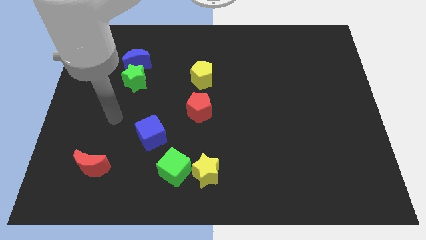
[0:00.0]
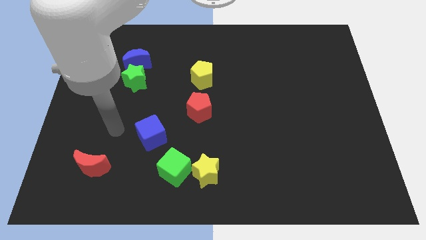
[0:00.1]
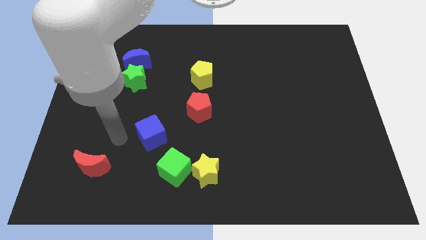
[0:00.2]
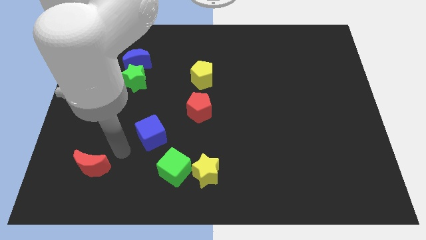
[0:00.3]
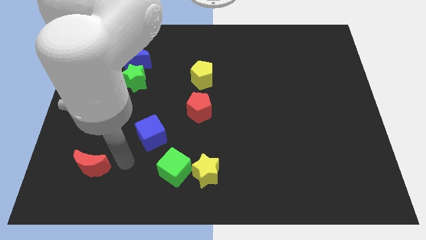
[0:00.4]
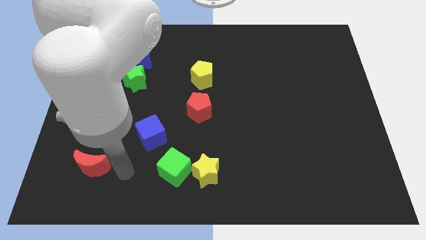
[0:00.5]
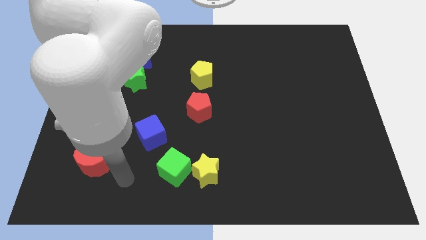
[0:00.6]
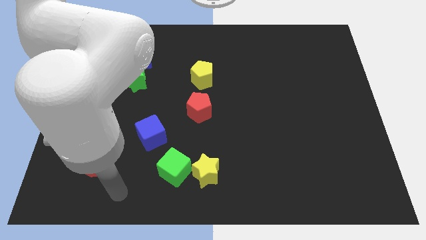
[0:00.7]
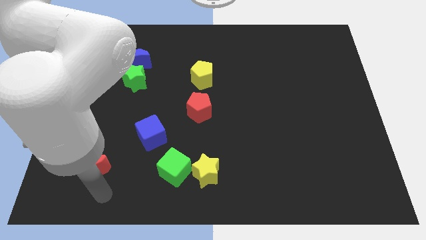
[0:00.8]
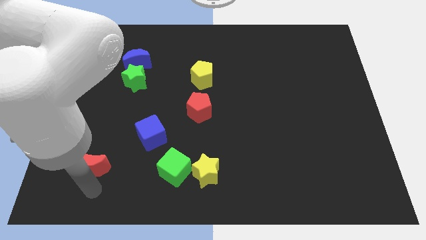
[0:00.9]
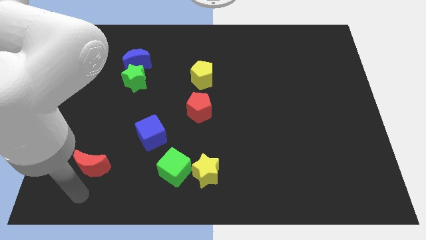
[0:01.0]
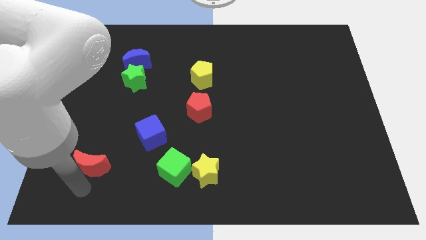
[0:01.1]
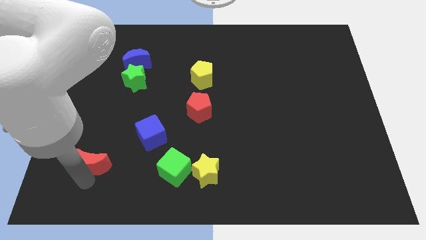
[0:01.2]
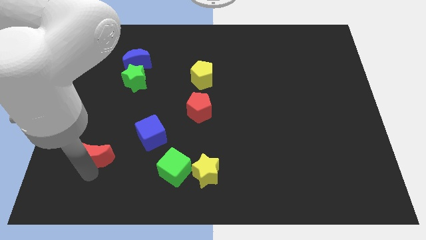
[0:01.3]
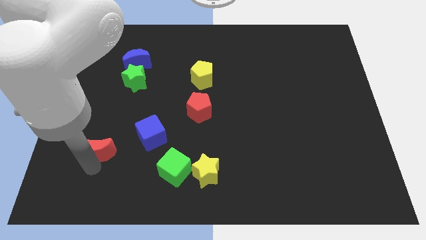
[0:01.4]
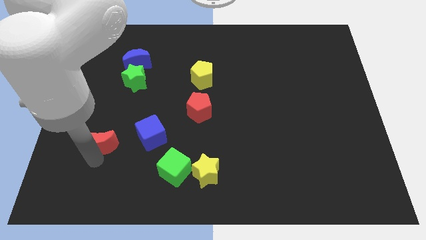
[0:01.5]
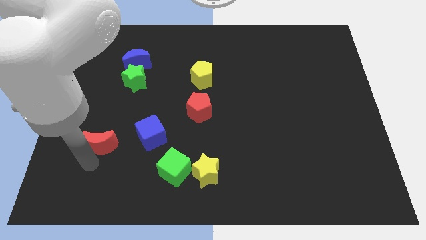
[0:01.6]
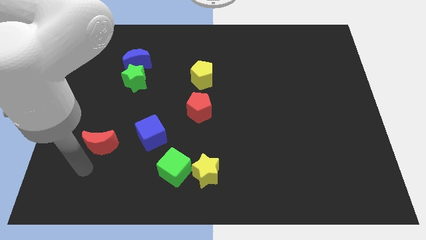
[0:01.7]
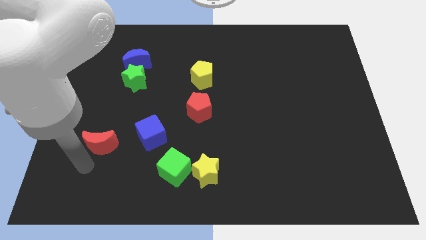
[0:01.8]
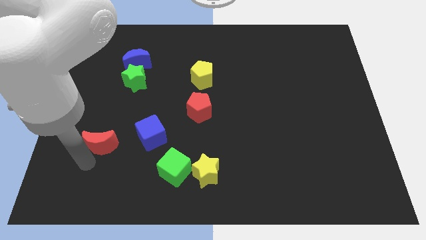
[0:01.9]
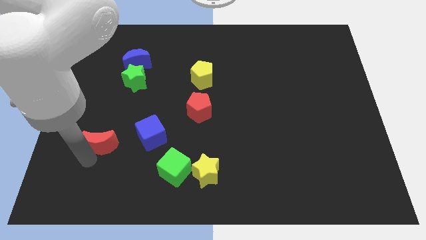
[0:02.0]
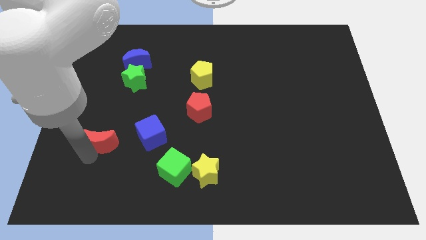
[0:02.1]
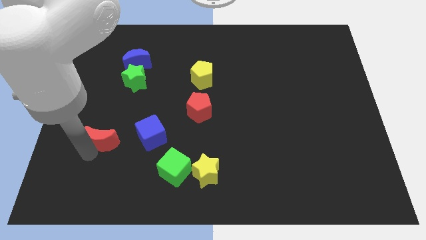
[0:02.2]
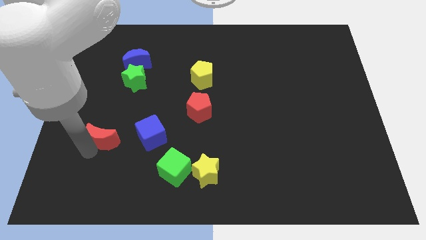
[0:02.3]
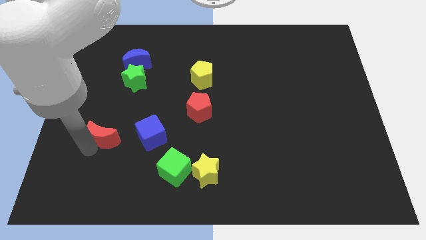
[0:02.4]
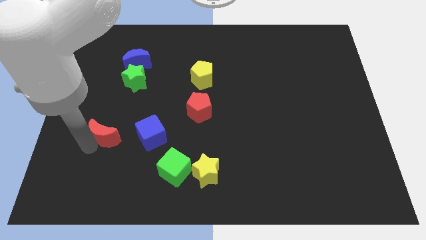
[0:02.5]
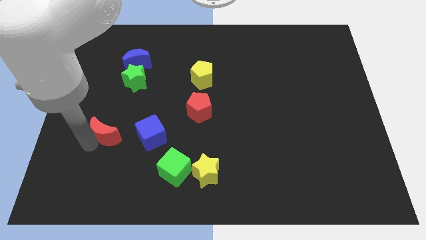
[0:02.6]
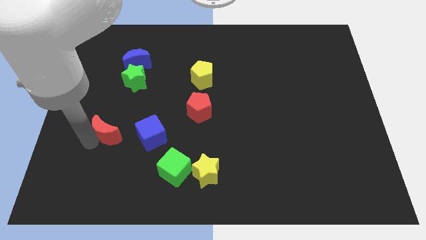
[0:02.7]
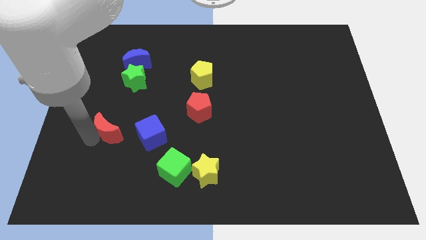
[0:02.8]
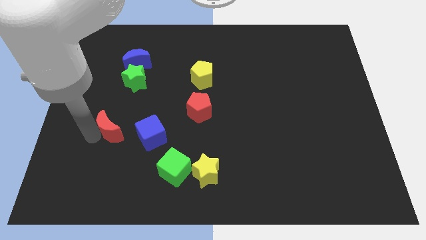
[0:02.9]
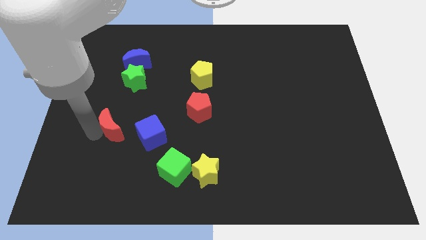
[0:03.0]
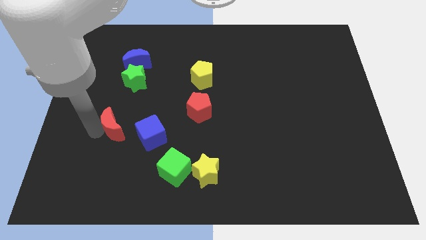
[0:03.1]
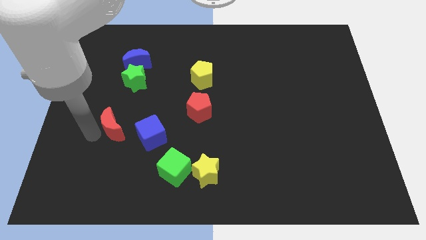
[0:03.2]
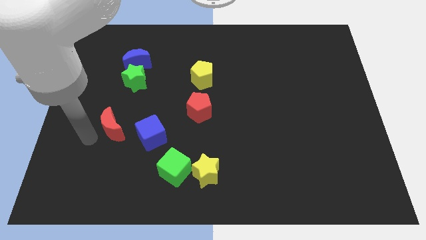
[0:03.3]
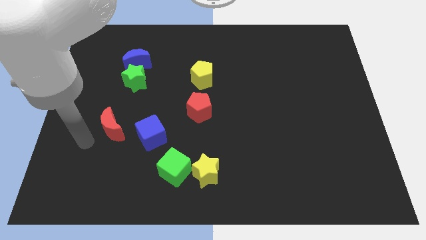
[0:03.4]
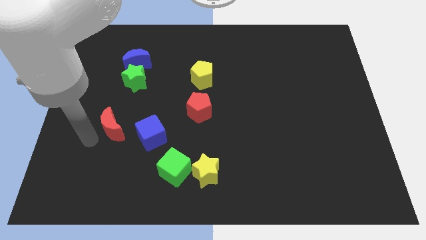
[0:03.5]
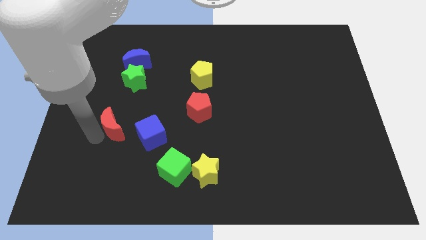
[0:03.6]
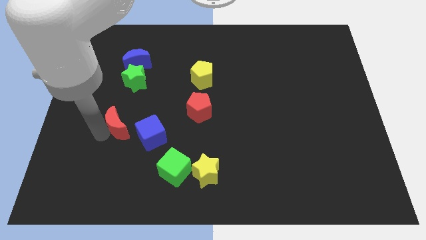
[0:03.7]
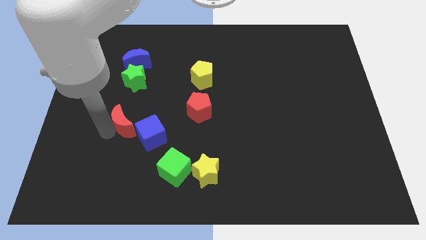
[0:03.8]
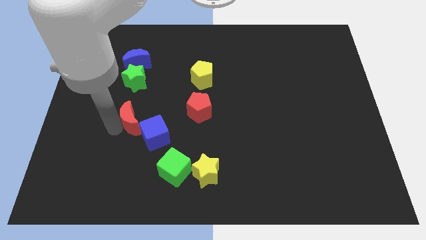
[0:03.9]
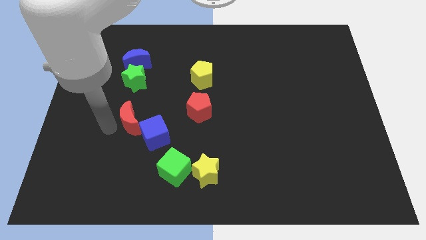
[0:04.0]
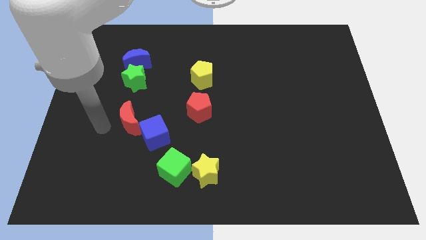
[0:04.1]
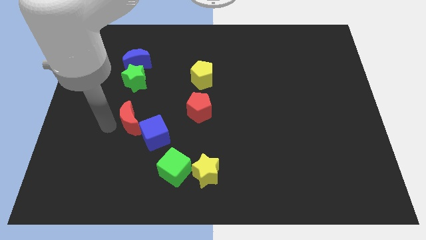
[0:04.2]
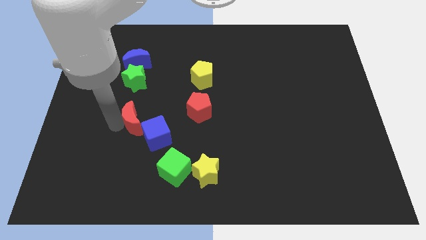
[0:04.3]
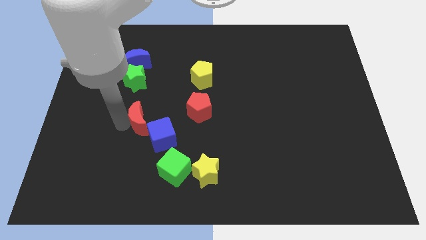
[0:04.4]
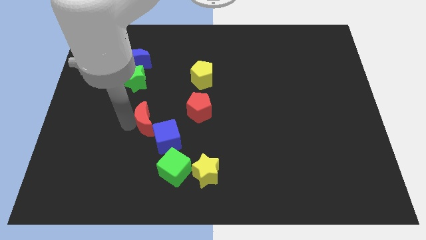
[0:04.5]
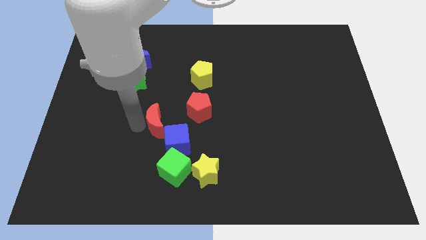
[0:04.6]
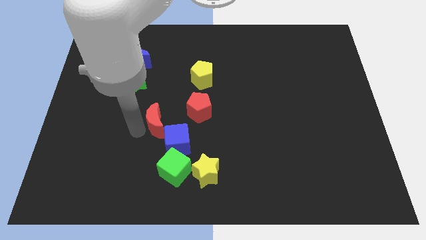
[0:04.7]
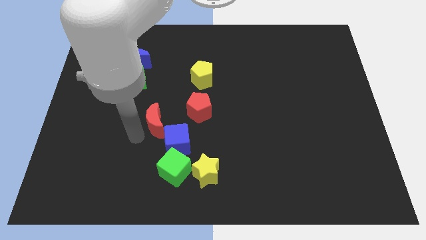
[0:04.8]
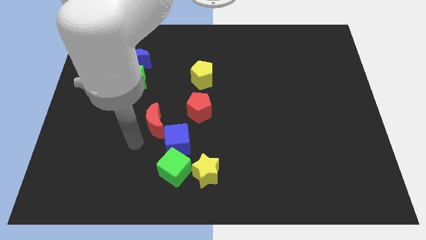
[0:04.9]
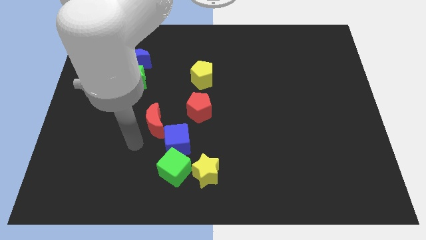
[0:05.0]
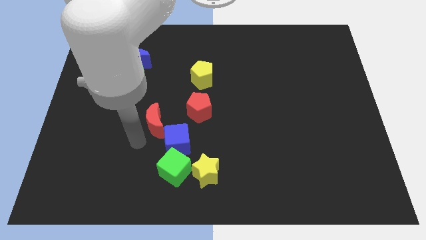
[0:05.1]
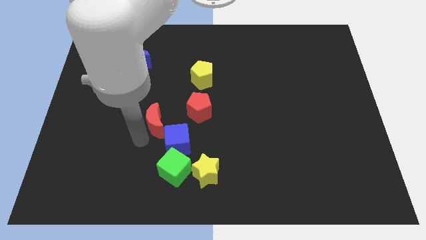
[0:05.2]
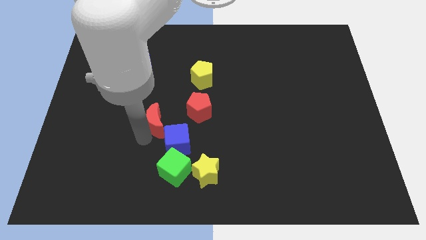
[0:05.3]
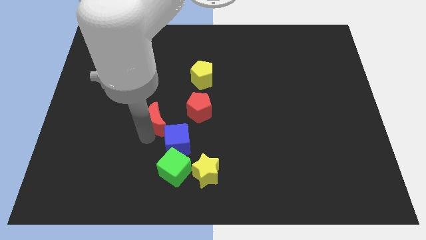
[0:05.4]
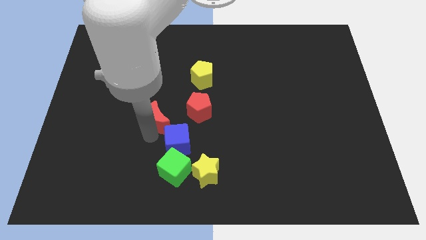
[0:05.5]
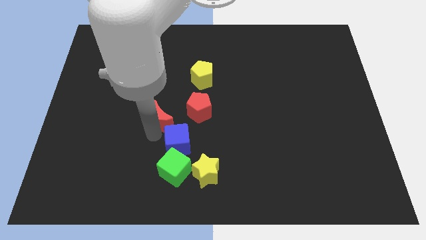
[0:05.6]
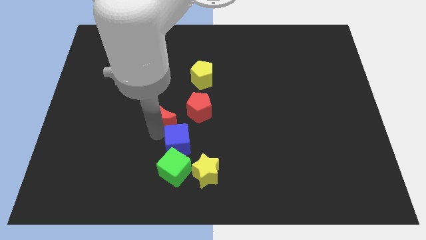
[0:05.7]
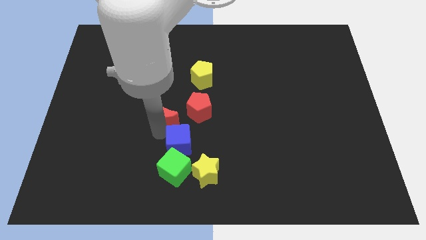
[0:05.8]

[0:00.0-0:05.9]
slide the red moon to the middle

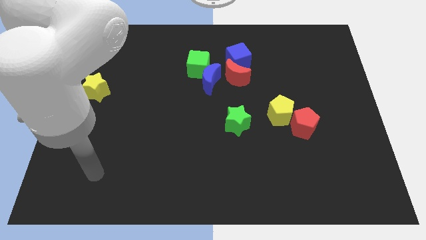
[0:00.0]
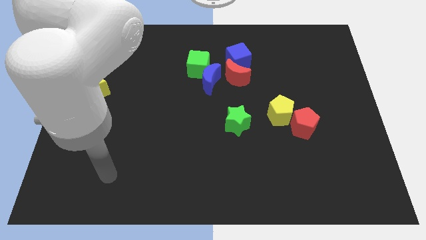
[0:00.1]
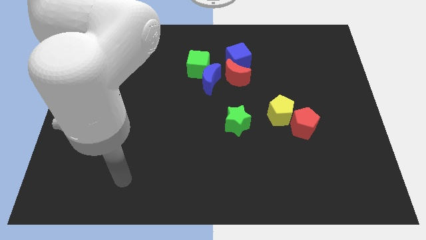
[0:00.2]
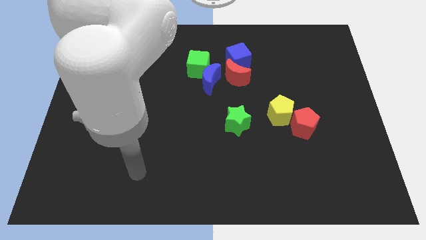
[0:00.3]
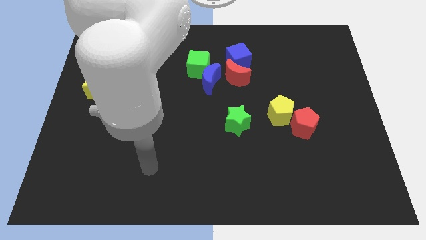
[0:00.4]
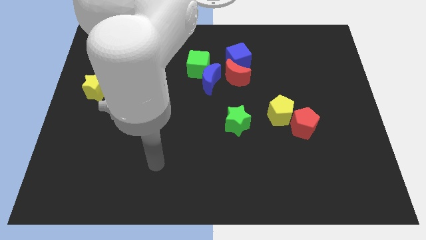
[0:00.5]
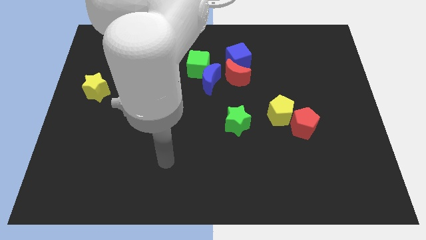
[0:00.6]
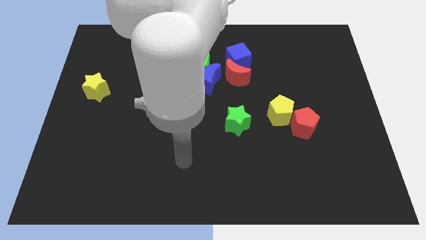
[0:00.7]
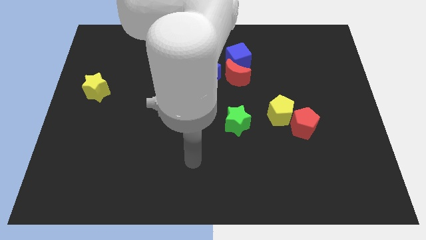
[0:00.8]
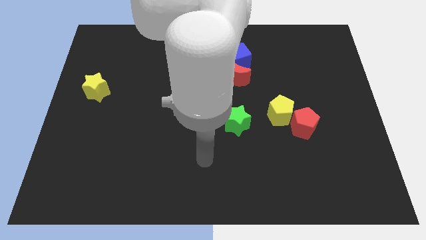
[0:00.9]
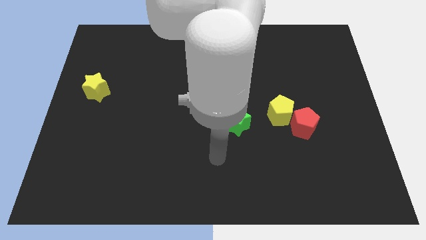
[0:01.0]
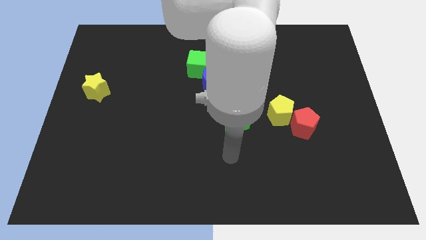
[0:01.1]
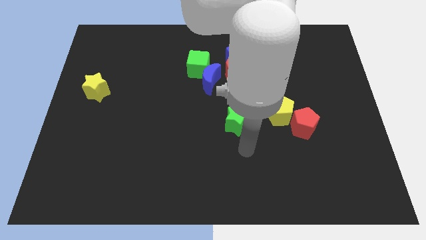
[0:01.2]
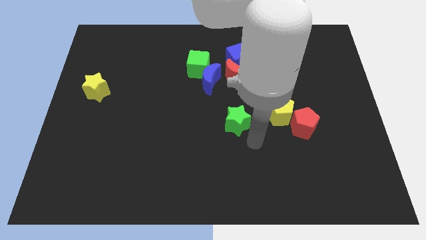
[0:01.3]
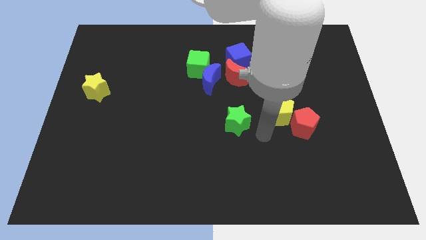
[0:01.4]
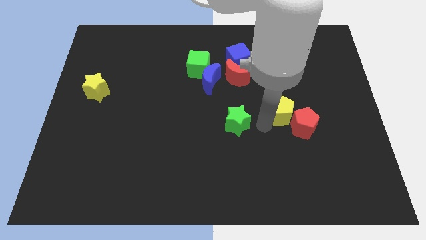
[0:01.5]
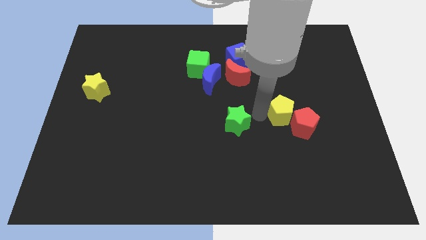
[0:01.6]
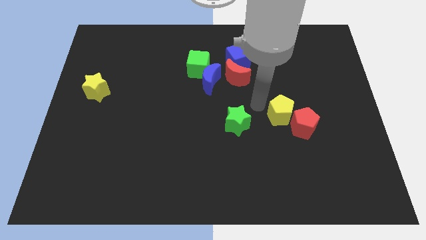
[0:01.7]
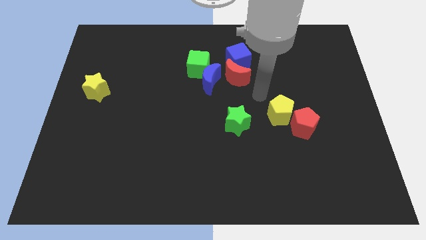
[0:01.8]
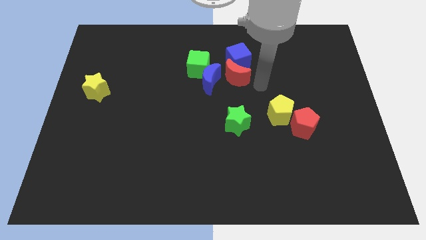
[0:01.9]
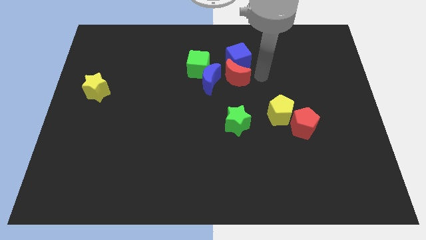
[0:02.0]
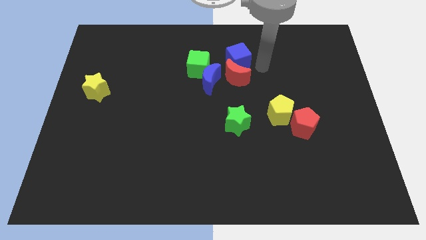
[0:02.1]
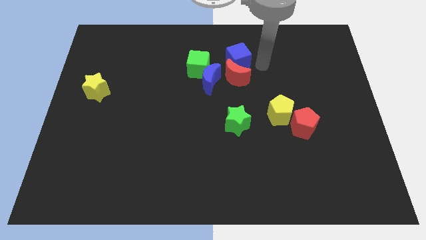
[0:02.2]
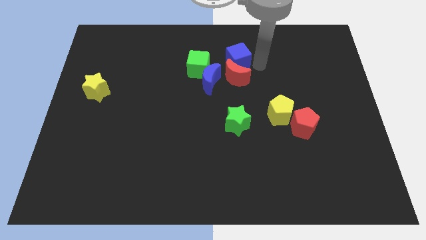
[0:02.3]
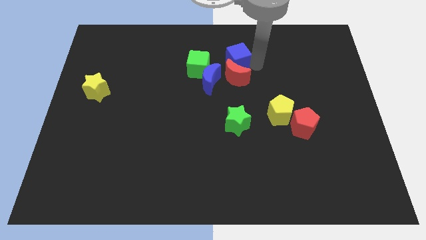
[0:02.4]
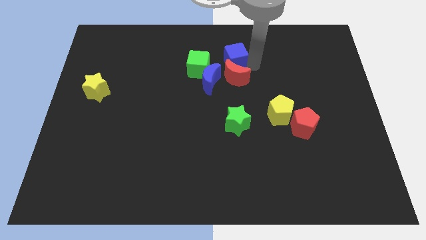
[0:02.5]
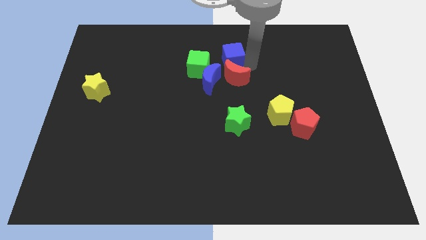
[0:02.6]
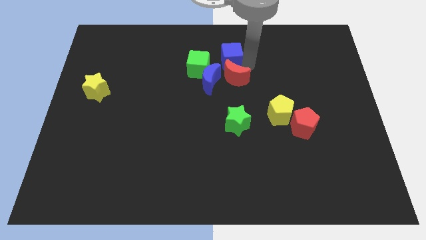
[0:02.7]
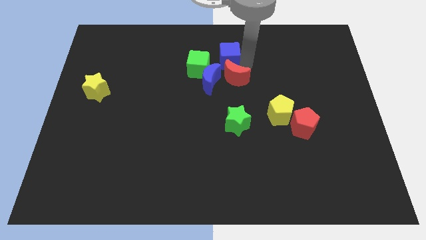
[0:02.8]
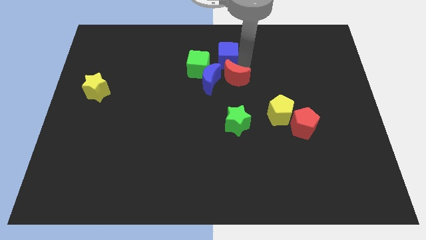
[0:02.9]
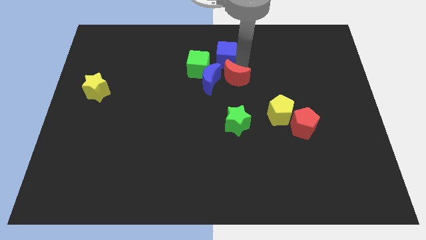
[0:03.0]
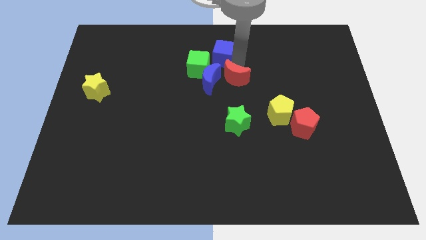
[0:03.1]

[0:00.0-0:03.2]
push the blue cube to the top
